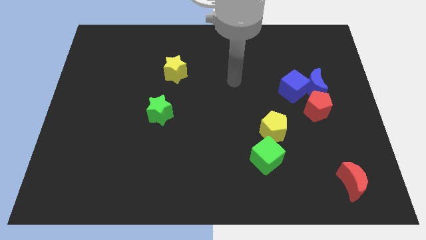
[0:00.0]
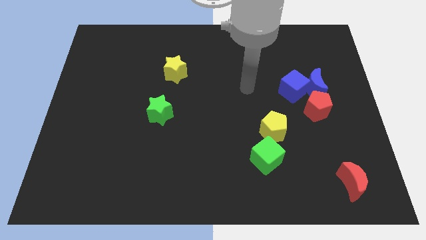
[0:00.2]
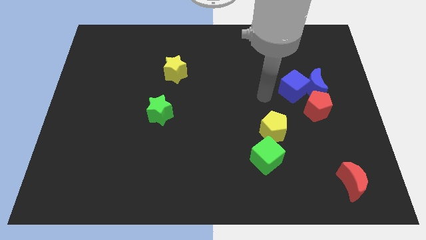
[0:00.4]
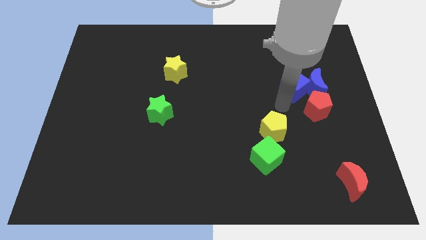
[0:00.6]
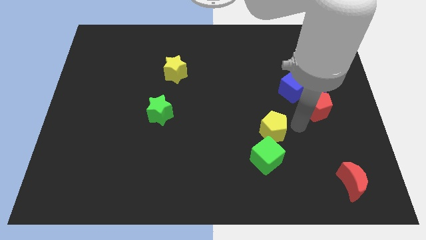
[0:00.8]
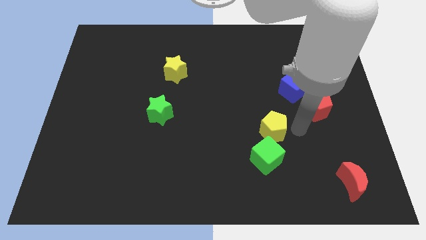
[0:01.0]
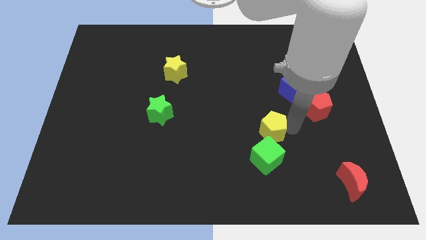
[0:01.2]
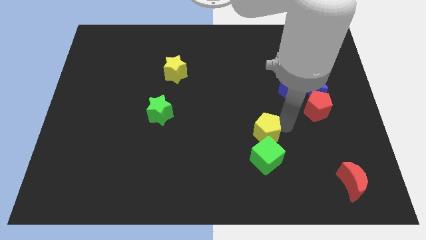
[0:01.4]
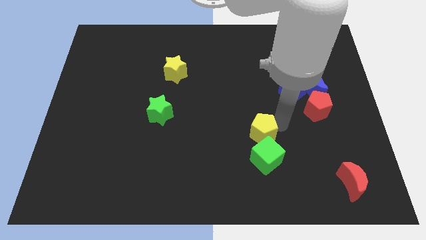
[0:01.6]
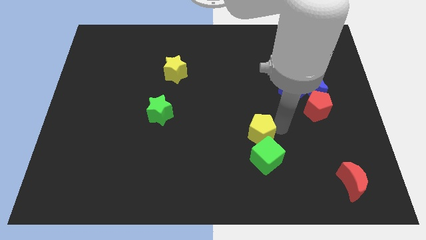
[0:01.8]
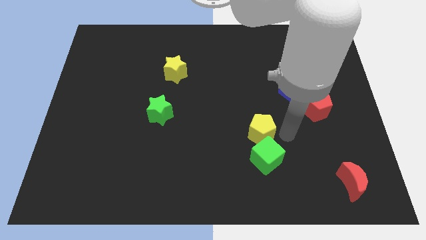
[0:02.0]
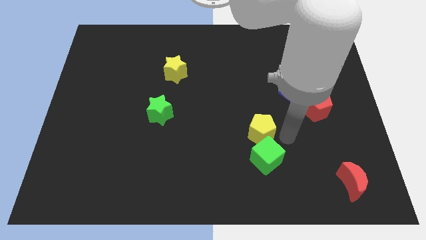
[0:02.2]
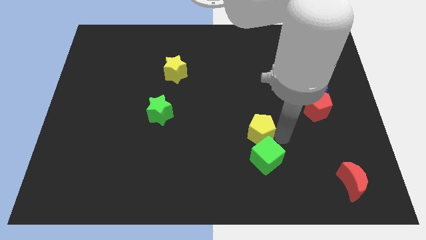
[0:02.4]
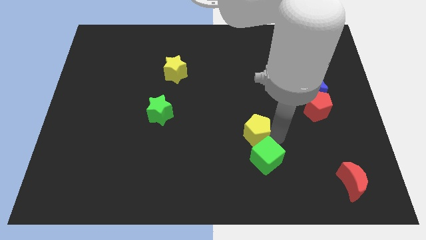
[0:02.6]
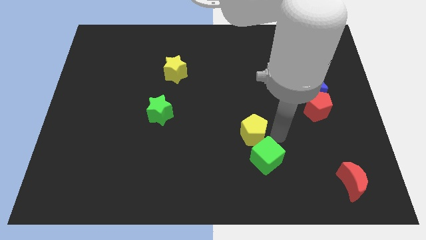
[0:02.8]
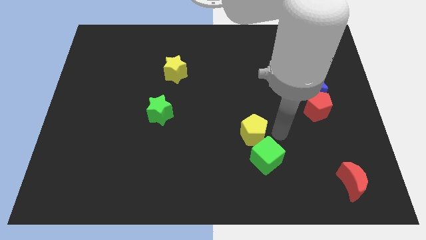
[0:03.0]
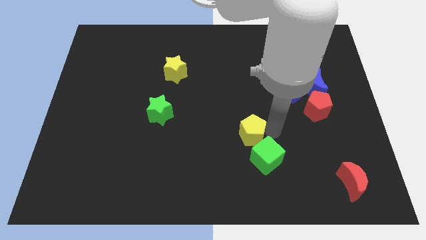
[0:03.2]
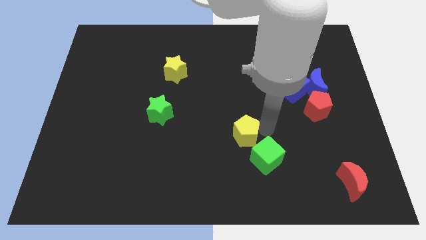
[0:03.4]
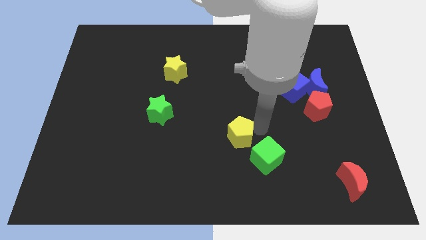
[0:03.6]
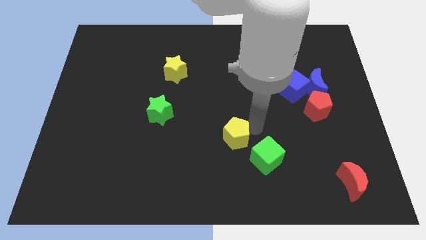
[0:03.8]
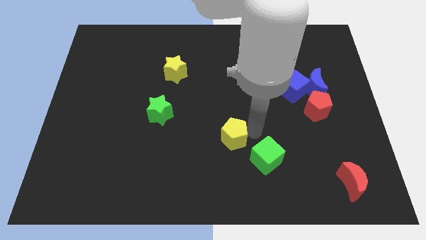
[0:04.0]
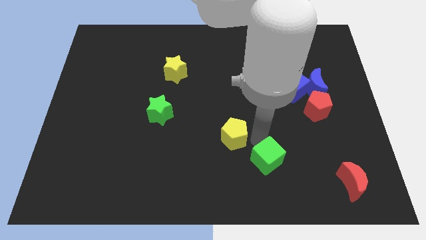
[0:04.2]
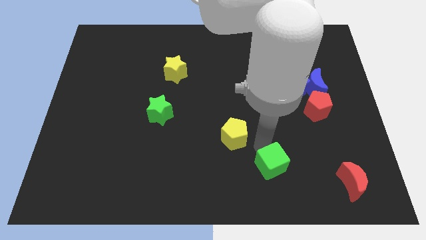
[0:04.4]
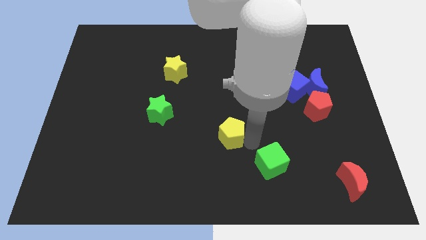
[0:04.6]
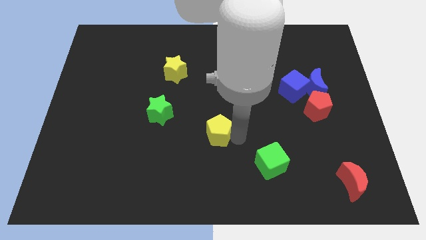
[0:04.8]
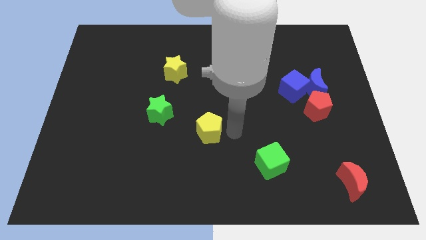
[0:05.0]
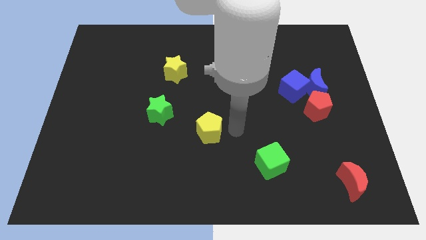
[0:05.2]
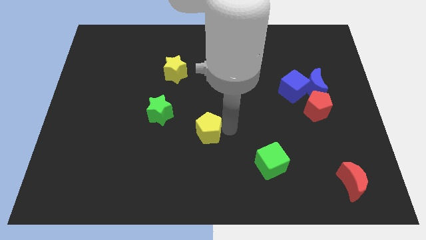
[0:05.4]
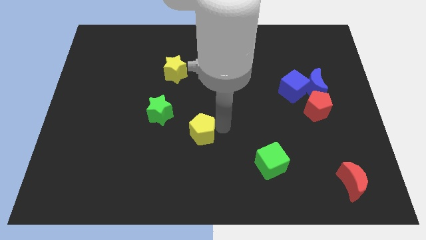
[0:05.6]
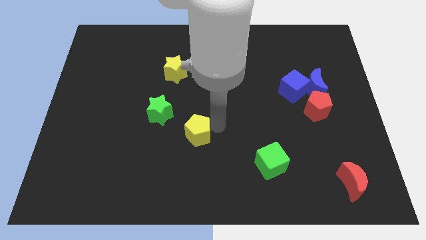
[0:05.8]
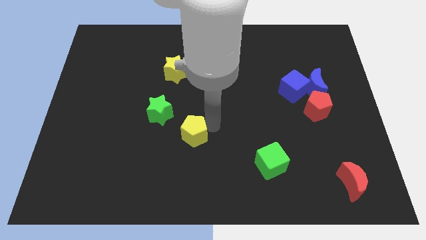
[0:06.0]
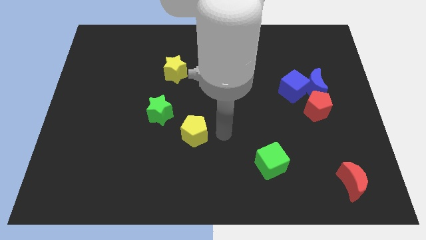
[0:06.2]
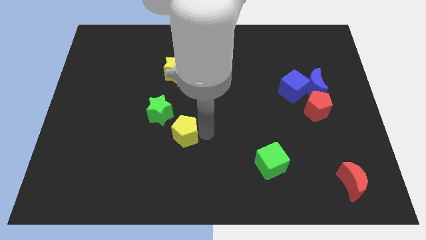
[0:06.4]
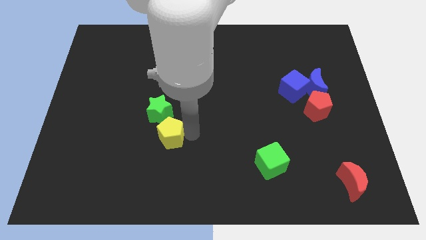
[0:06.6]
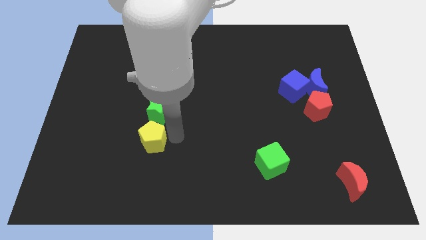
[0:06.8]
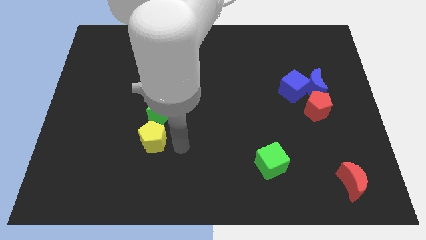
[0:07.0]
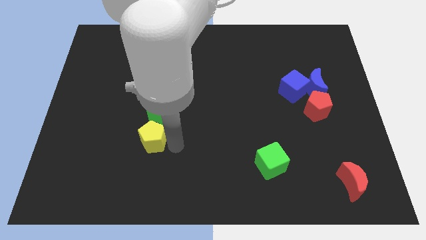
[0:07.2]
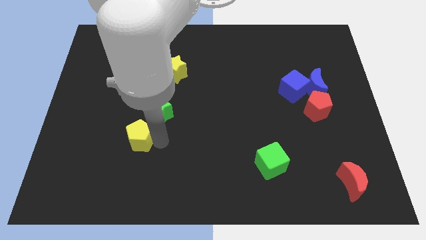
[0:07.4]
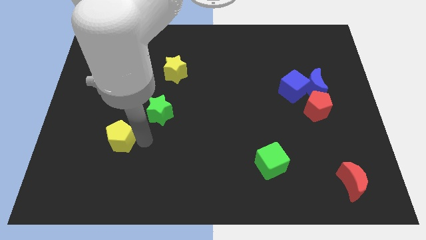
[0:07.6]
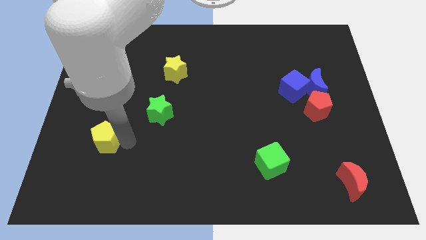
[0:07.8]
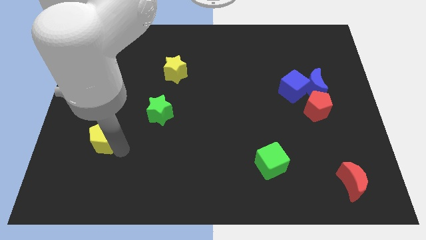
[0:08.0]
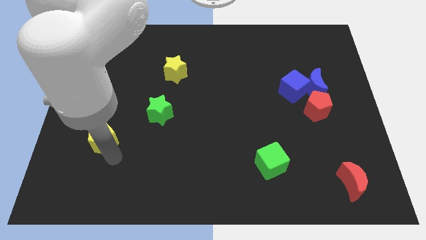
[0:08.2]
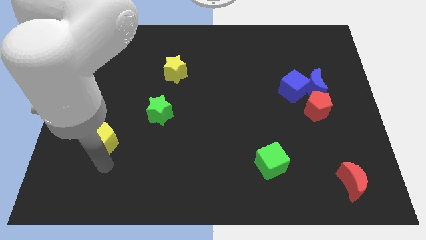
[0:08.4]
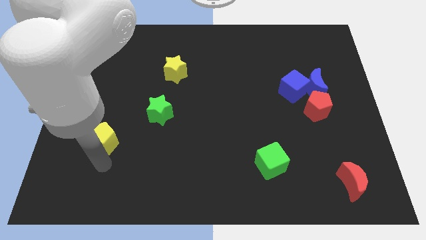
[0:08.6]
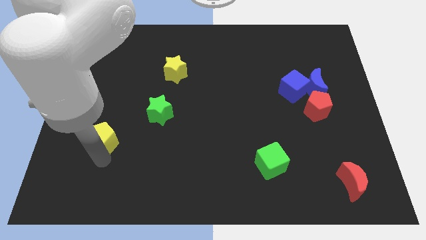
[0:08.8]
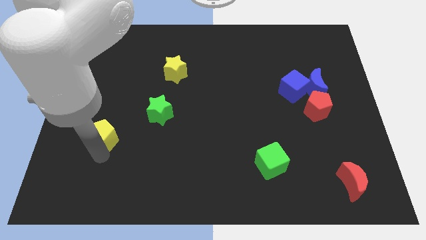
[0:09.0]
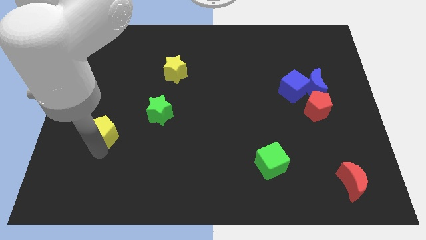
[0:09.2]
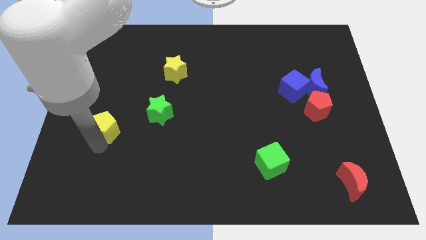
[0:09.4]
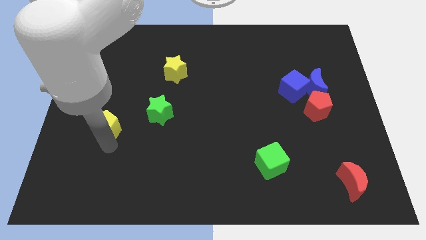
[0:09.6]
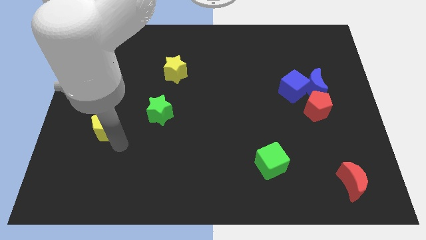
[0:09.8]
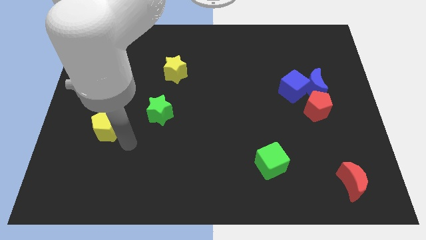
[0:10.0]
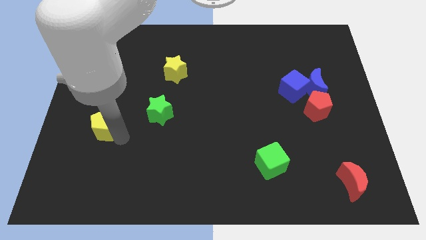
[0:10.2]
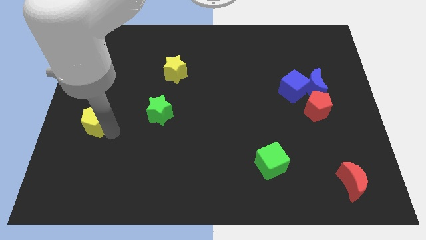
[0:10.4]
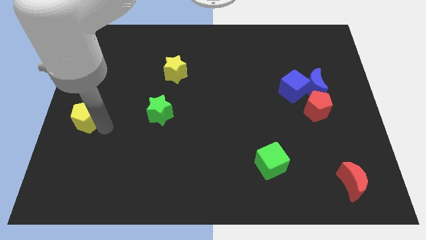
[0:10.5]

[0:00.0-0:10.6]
slide the yellow pentagon to the center left
